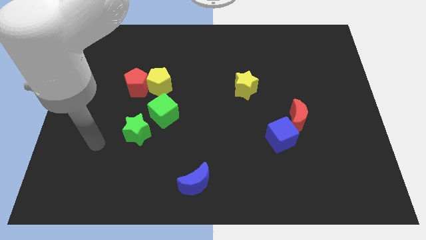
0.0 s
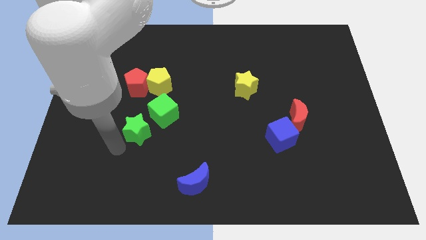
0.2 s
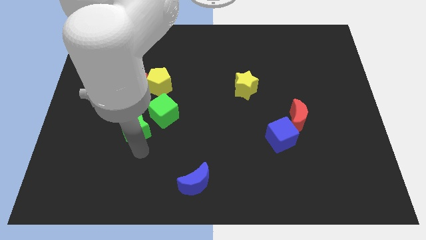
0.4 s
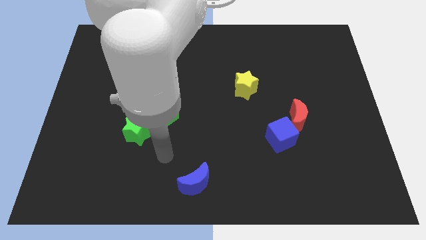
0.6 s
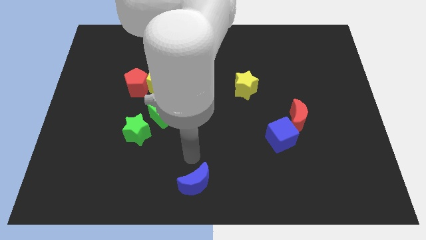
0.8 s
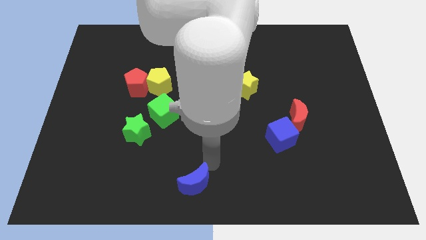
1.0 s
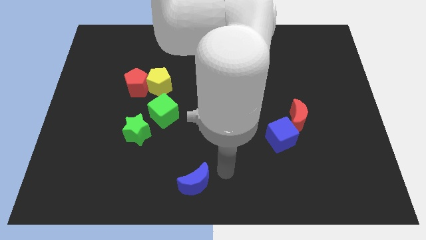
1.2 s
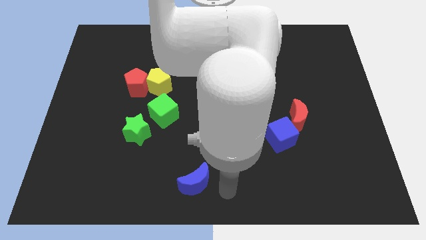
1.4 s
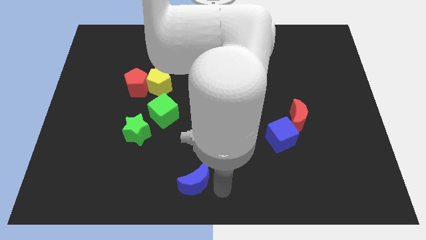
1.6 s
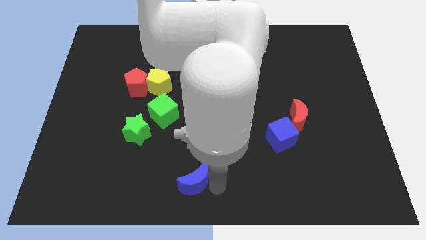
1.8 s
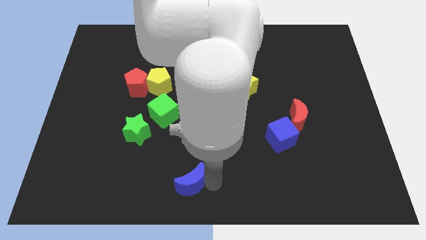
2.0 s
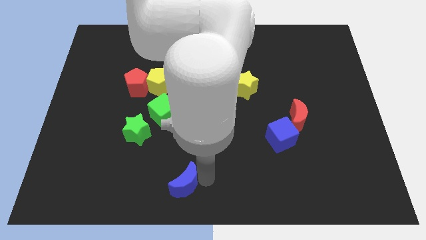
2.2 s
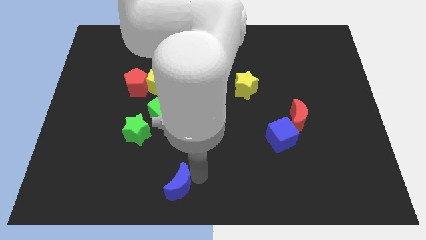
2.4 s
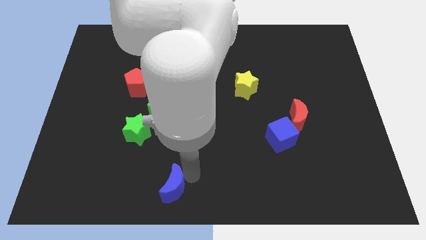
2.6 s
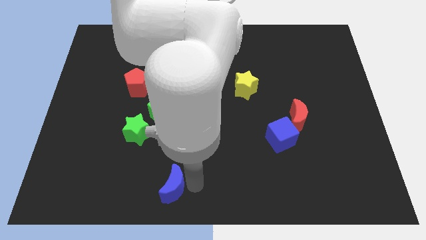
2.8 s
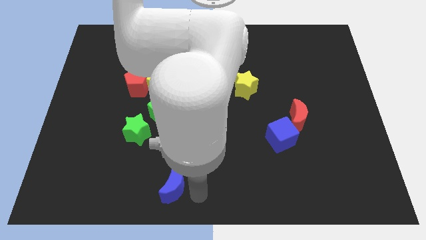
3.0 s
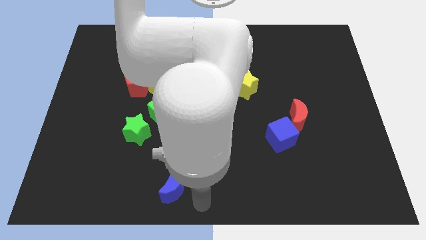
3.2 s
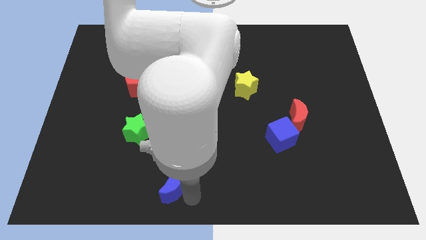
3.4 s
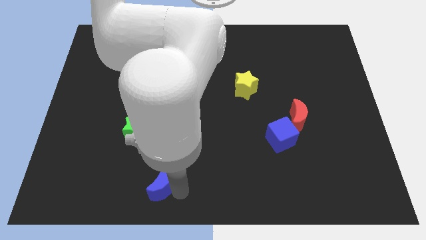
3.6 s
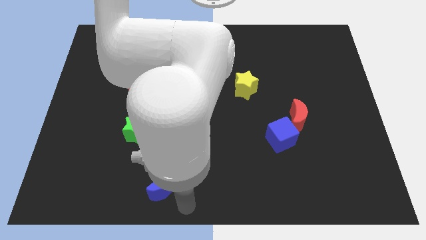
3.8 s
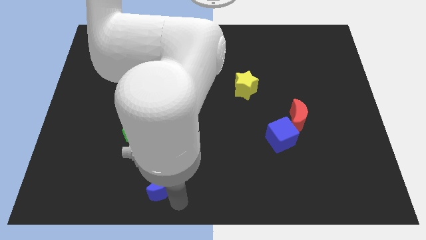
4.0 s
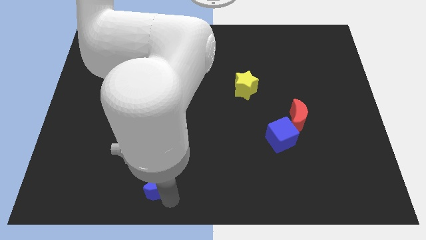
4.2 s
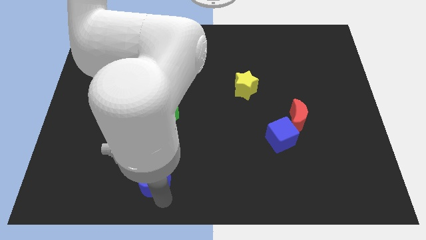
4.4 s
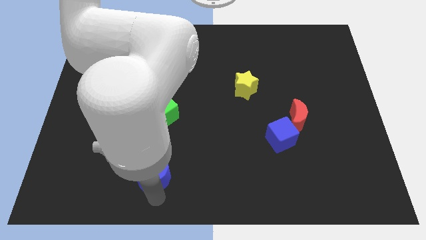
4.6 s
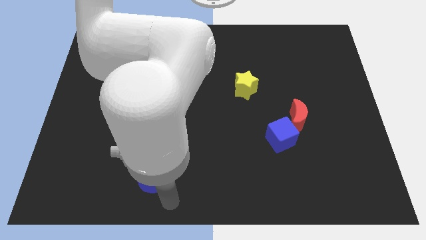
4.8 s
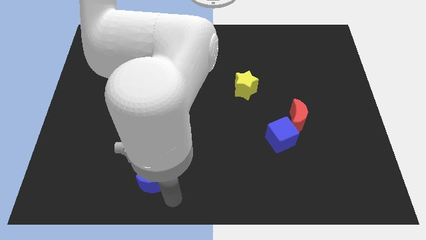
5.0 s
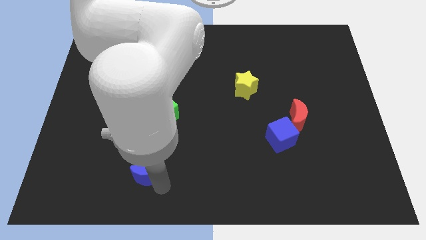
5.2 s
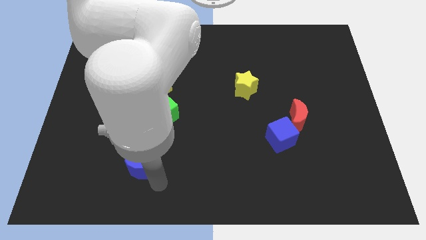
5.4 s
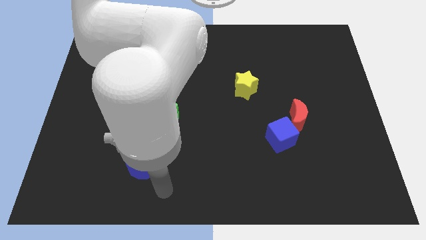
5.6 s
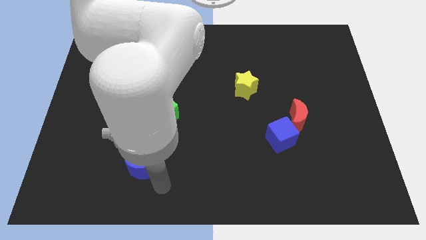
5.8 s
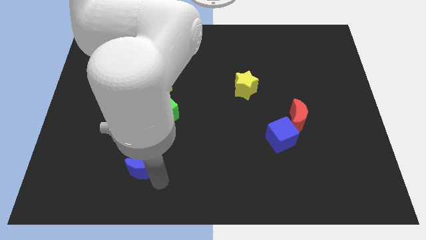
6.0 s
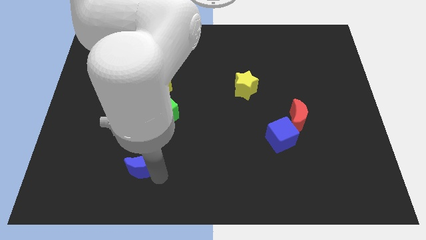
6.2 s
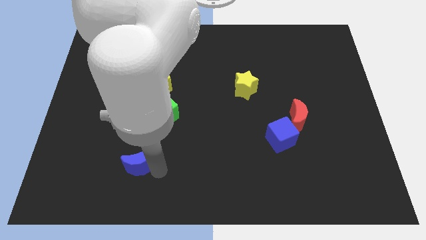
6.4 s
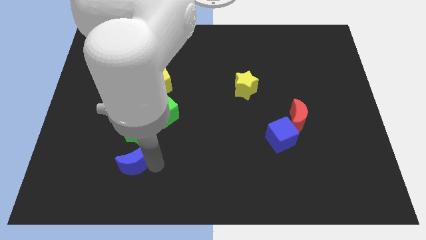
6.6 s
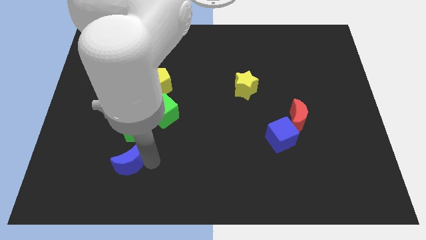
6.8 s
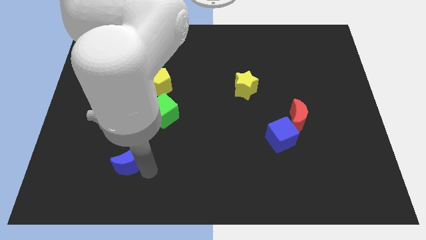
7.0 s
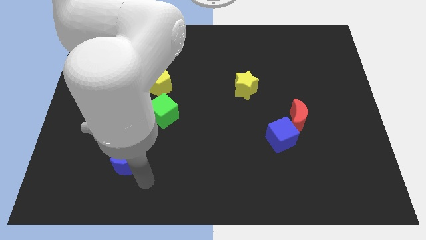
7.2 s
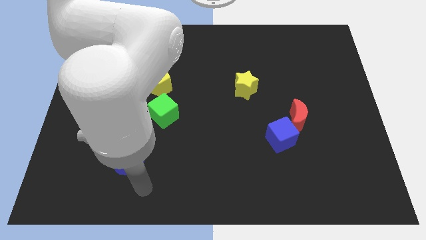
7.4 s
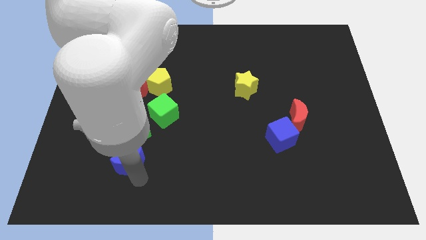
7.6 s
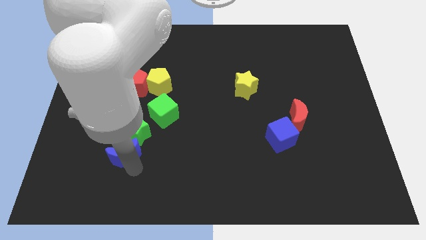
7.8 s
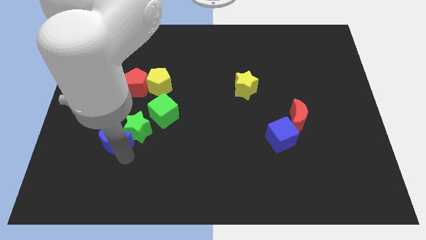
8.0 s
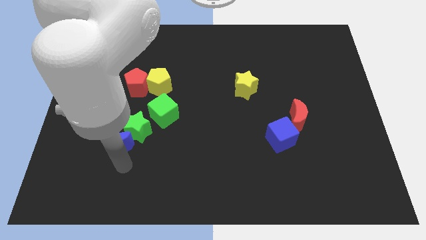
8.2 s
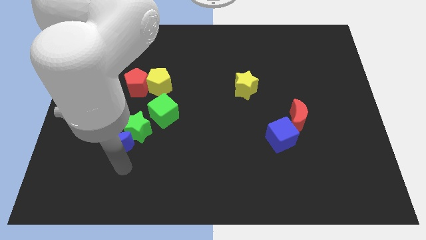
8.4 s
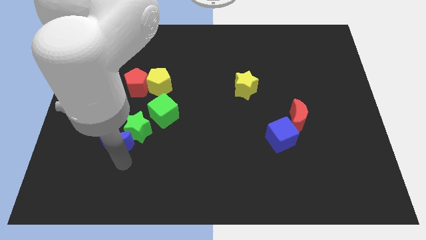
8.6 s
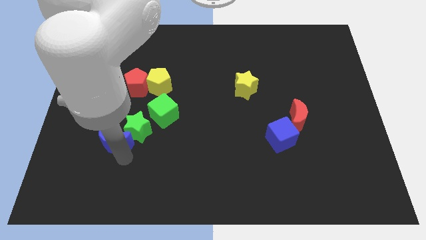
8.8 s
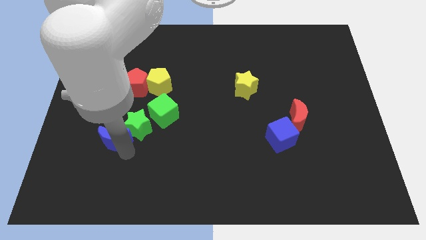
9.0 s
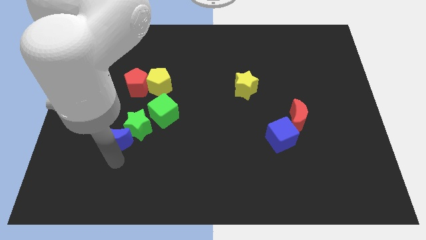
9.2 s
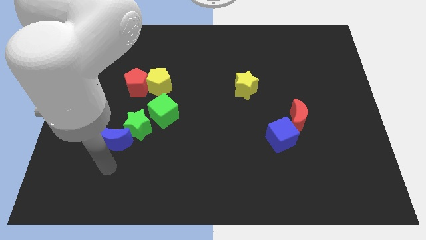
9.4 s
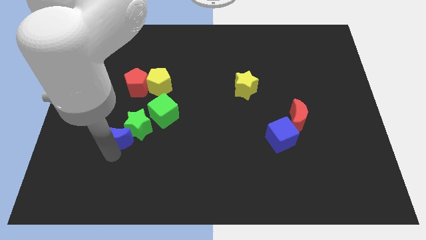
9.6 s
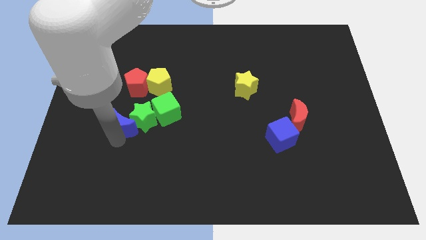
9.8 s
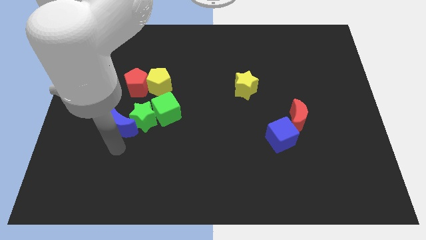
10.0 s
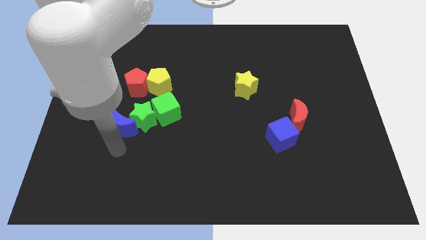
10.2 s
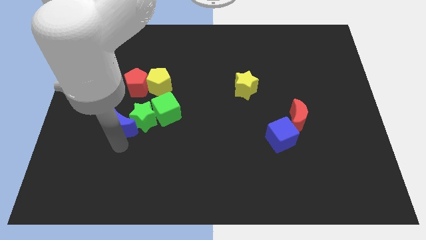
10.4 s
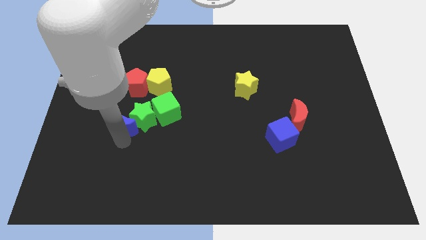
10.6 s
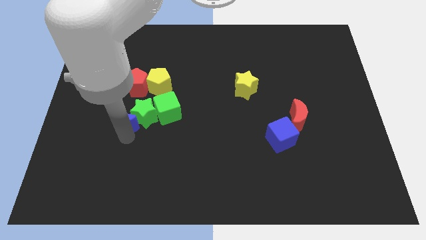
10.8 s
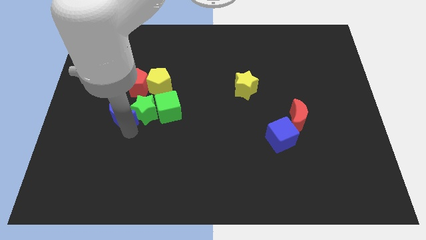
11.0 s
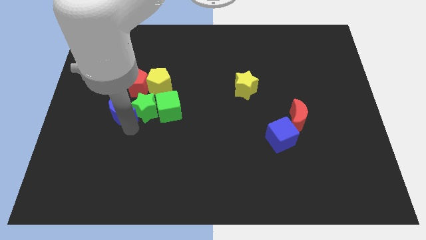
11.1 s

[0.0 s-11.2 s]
slide the blue moon to the bottom left of the yellow pentagon

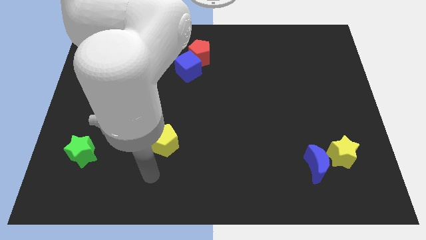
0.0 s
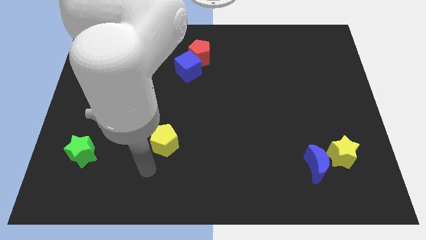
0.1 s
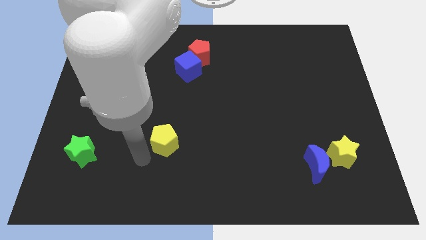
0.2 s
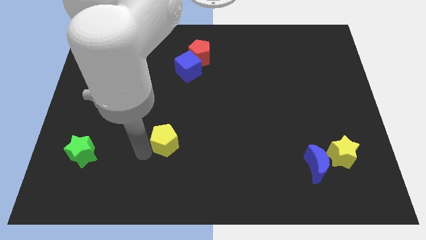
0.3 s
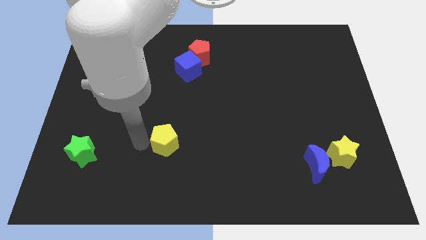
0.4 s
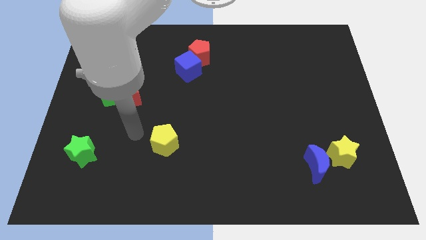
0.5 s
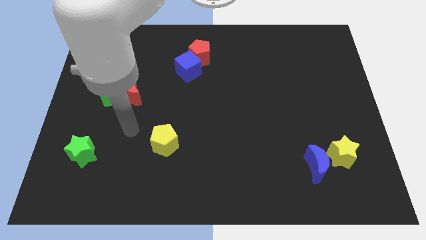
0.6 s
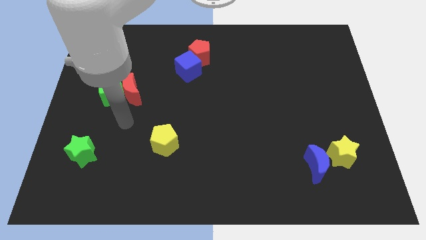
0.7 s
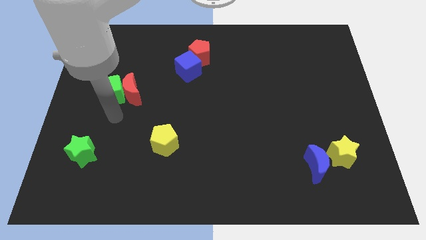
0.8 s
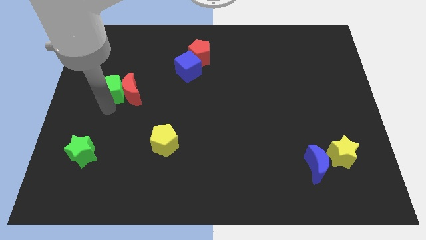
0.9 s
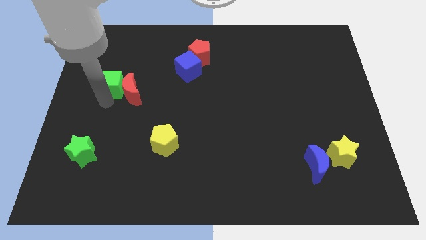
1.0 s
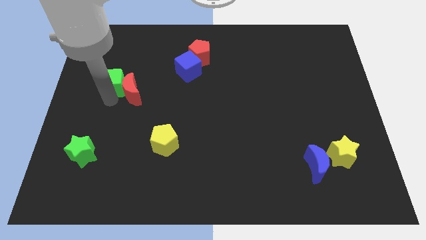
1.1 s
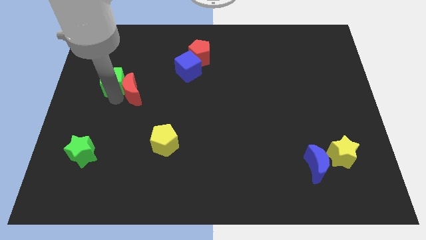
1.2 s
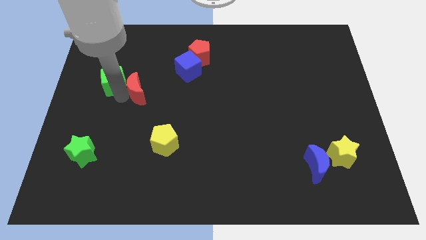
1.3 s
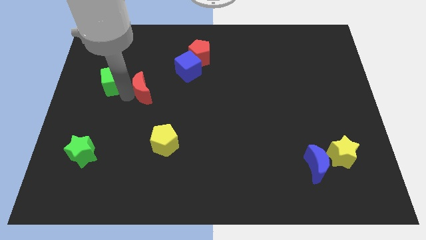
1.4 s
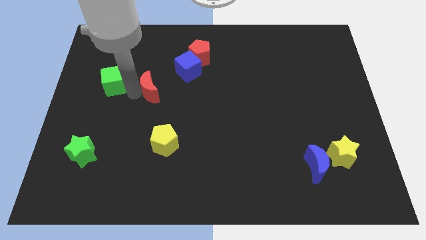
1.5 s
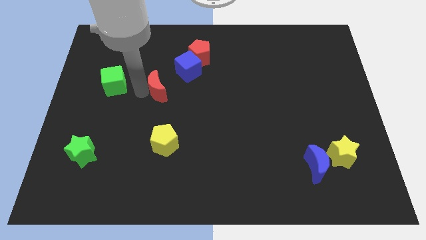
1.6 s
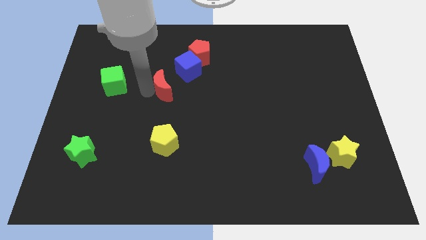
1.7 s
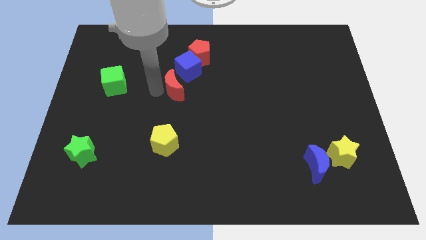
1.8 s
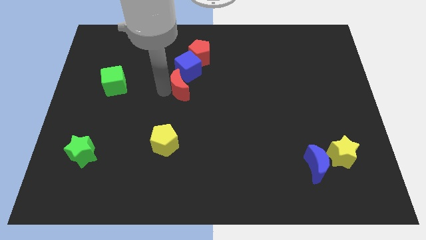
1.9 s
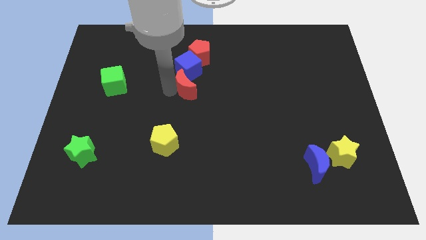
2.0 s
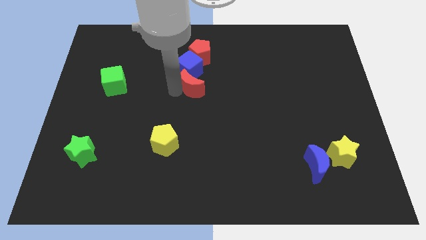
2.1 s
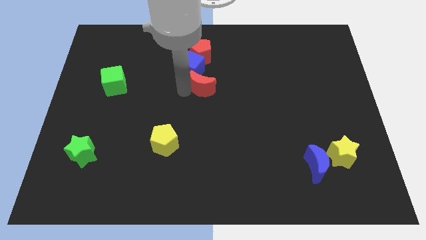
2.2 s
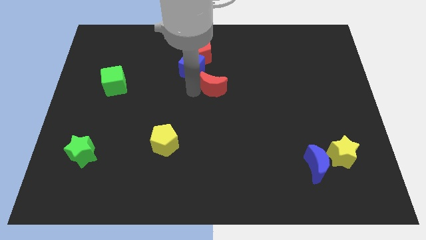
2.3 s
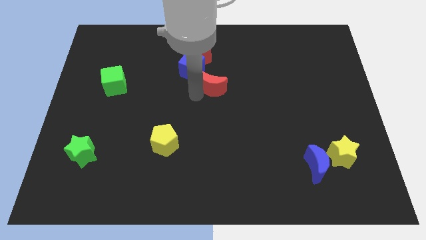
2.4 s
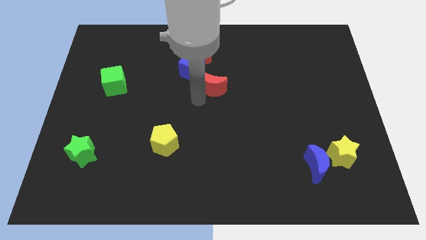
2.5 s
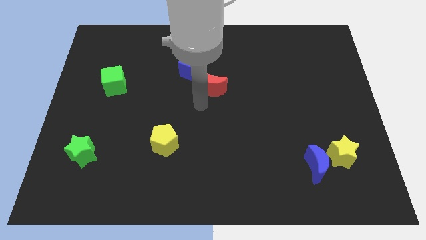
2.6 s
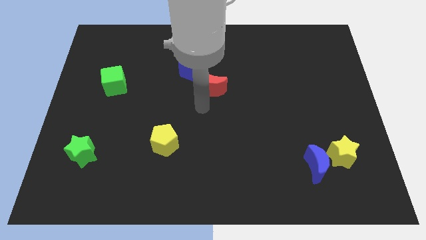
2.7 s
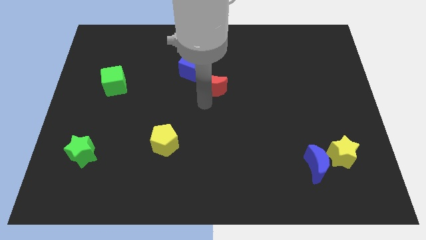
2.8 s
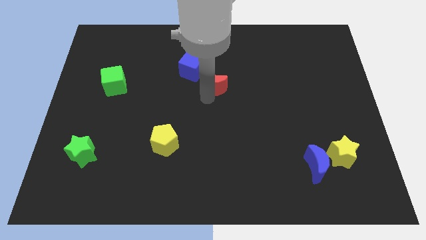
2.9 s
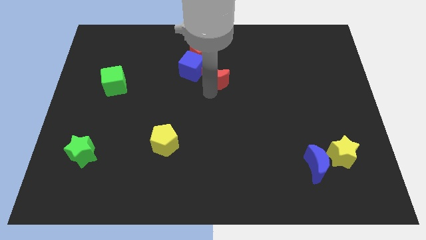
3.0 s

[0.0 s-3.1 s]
put the red moon diagonally down and to the right of the red pentagon
